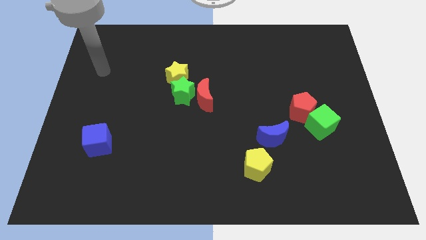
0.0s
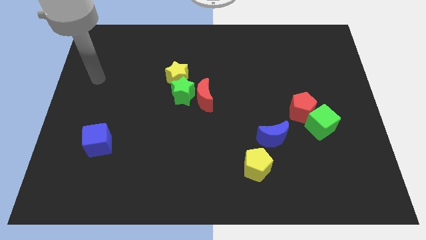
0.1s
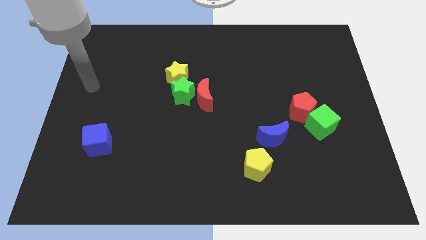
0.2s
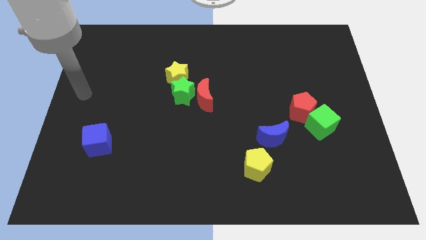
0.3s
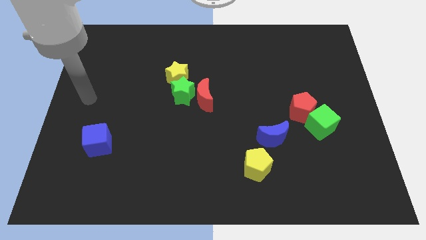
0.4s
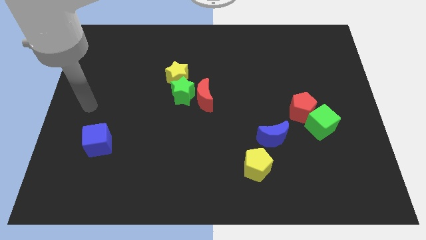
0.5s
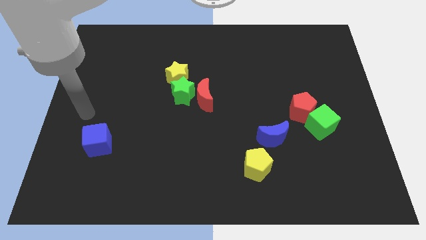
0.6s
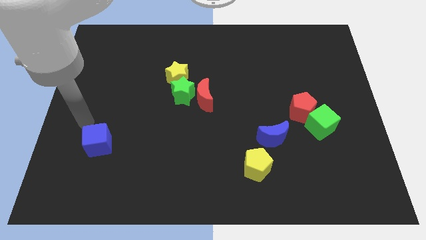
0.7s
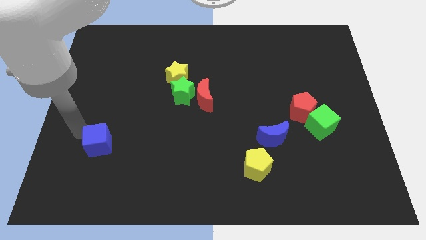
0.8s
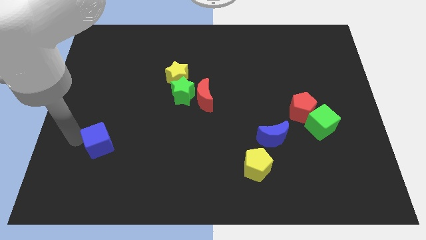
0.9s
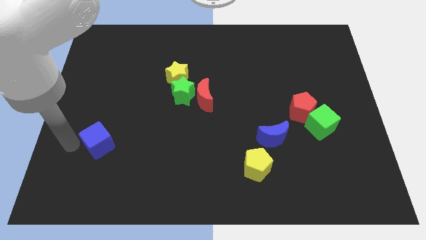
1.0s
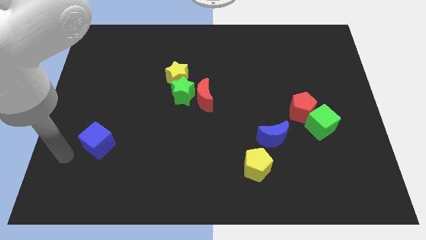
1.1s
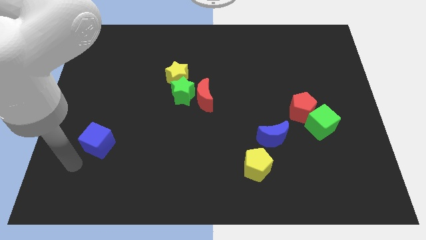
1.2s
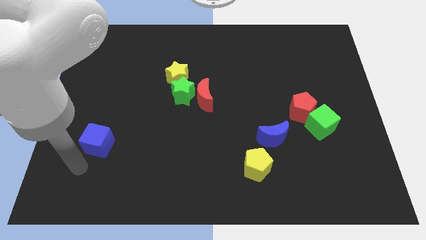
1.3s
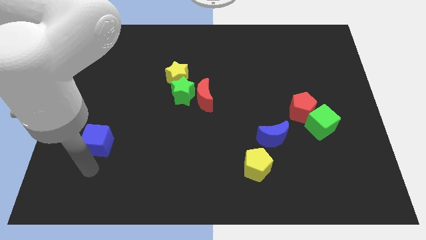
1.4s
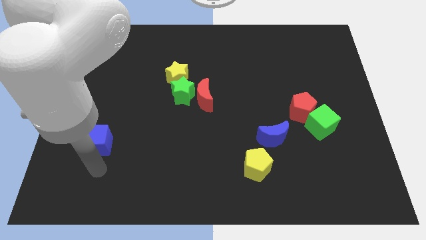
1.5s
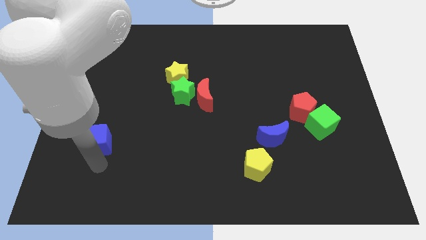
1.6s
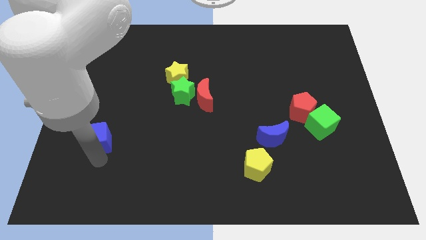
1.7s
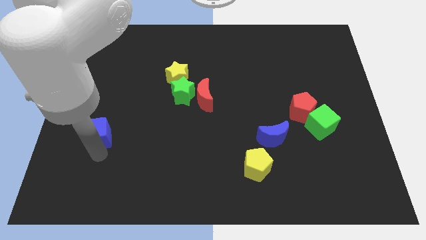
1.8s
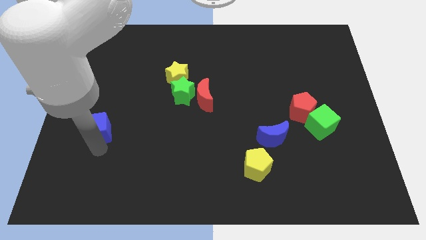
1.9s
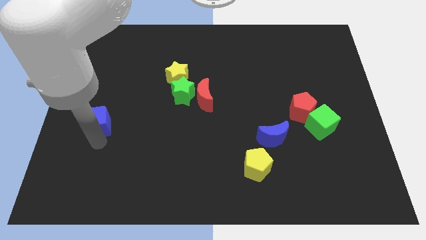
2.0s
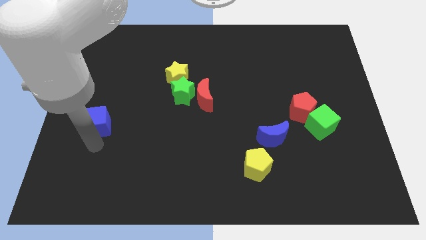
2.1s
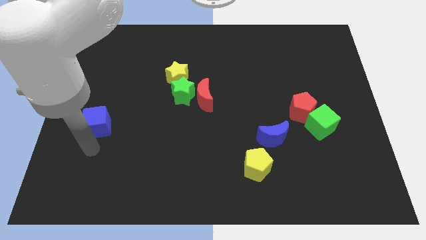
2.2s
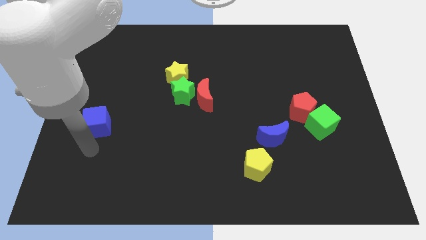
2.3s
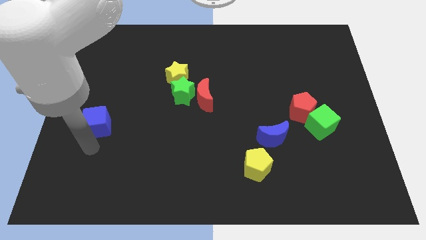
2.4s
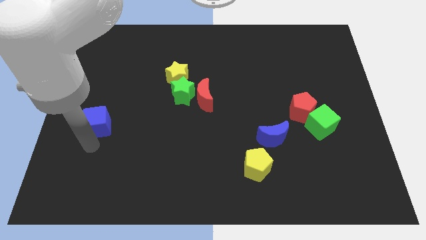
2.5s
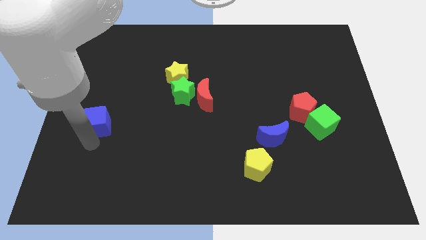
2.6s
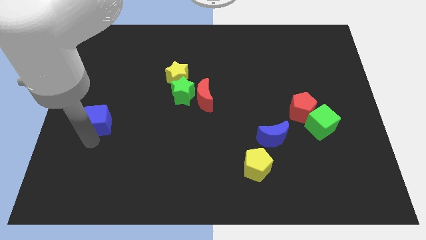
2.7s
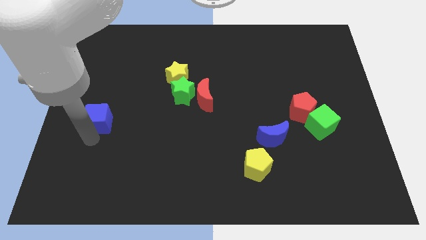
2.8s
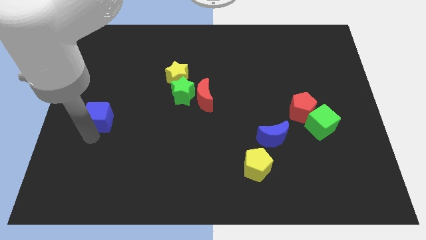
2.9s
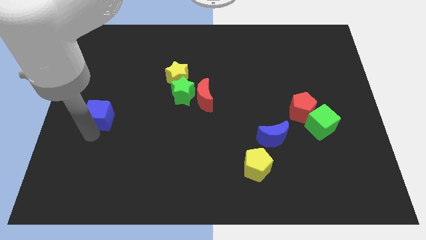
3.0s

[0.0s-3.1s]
move the blue cube upwards a little bit

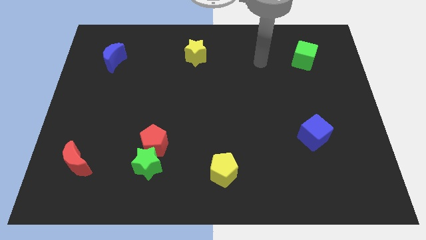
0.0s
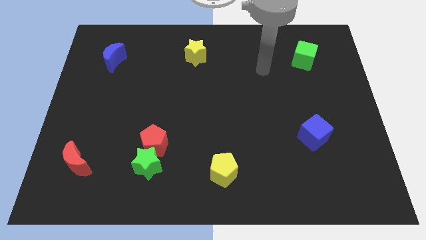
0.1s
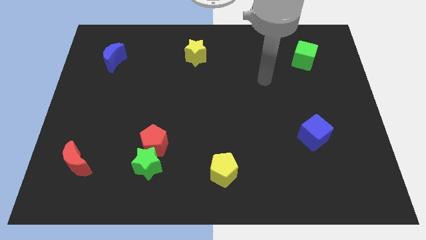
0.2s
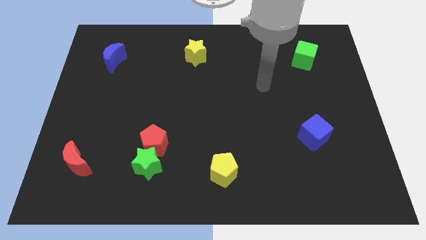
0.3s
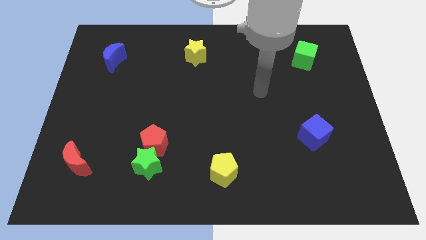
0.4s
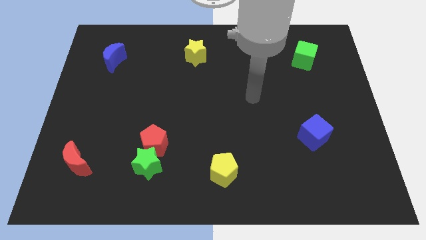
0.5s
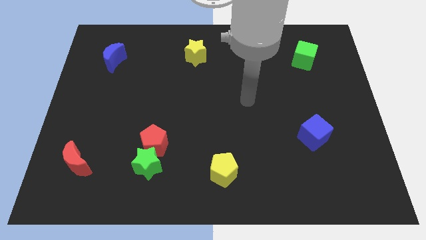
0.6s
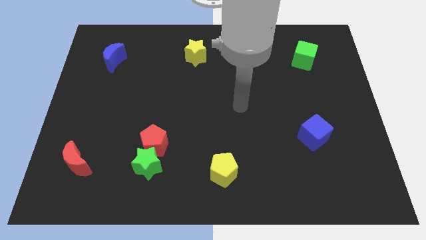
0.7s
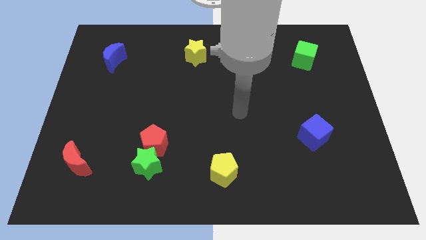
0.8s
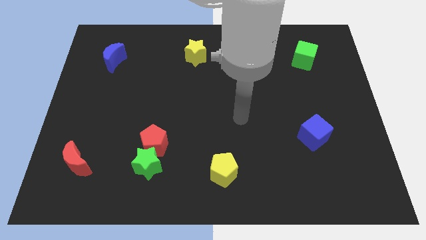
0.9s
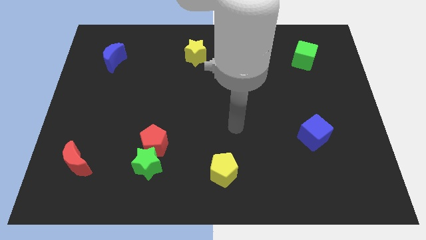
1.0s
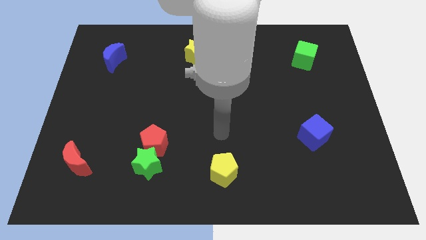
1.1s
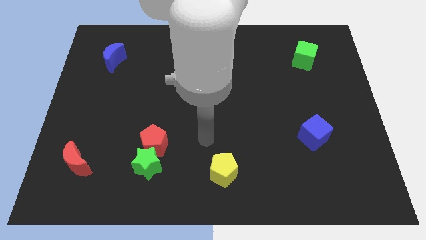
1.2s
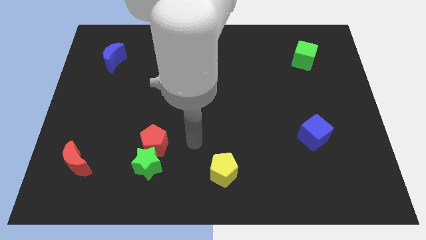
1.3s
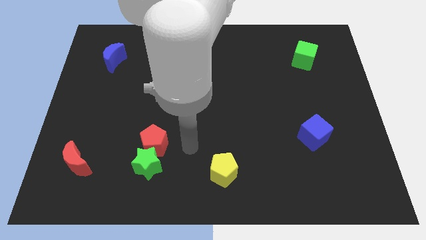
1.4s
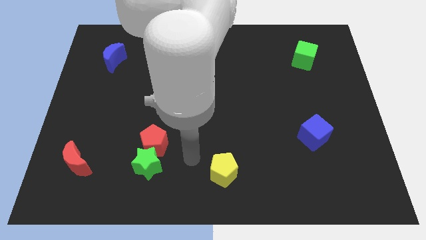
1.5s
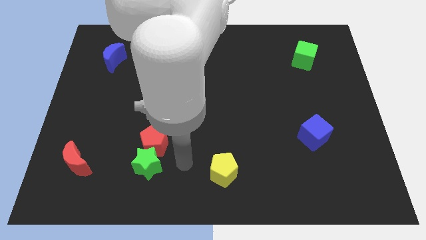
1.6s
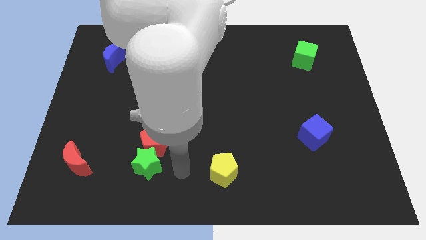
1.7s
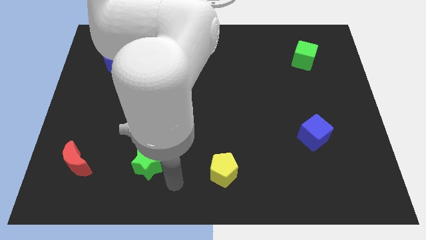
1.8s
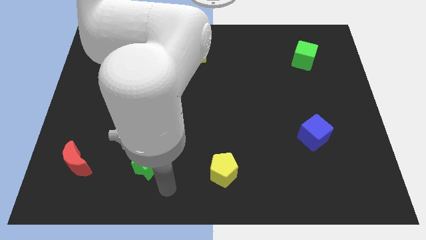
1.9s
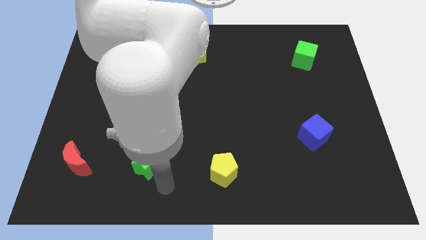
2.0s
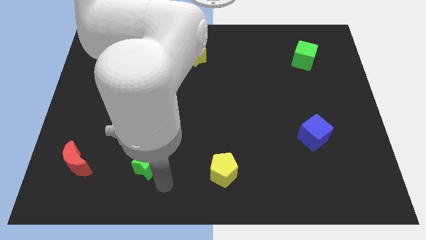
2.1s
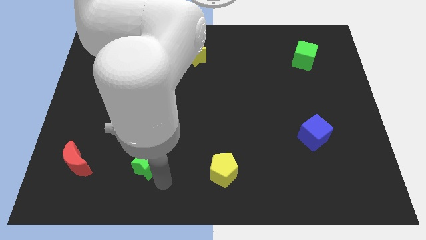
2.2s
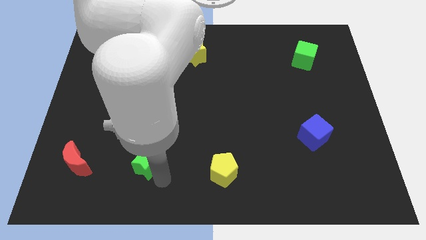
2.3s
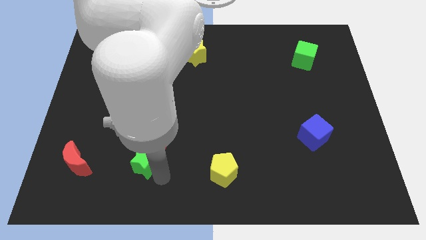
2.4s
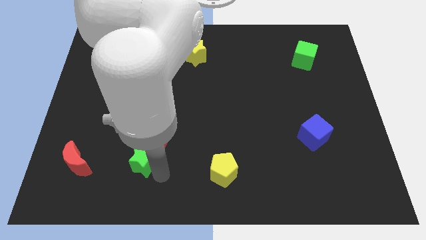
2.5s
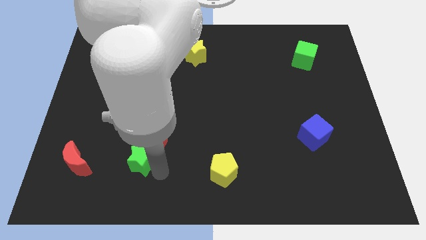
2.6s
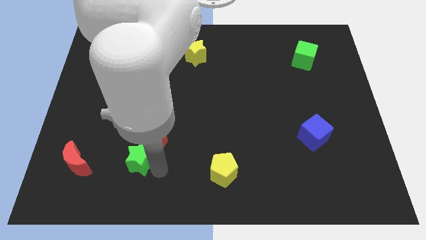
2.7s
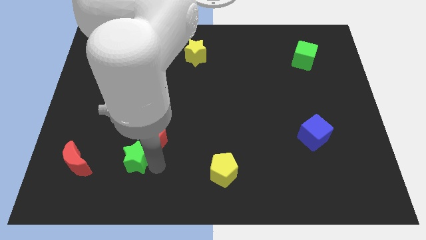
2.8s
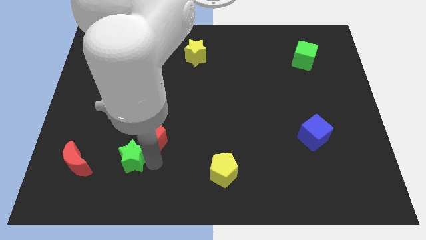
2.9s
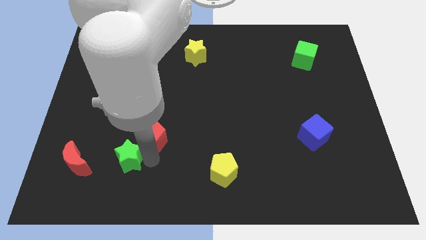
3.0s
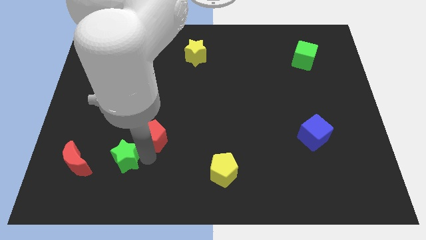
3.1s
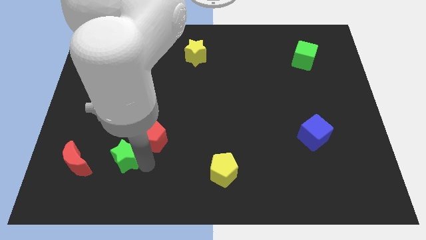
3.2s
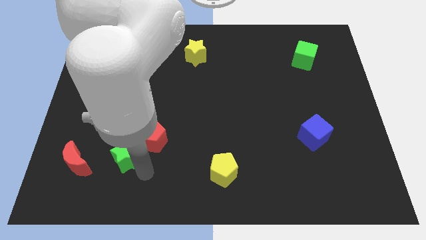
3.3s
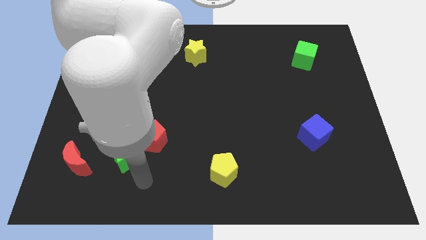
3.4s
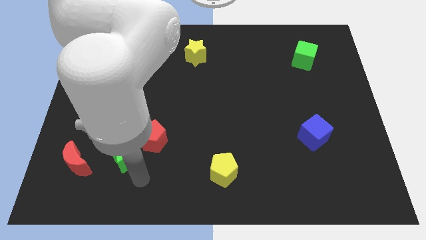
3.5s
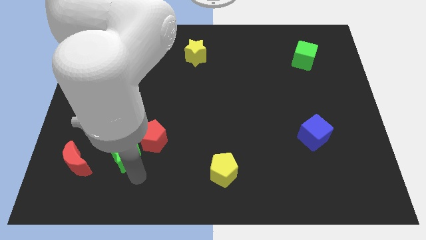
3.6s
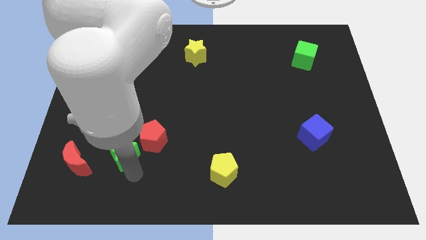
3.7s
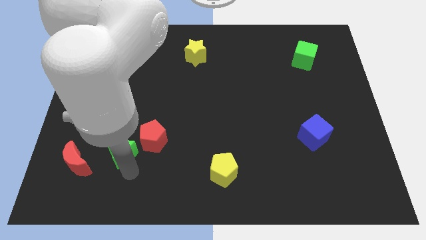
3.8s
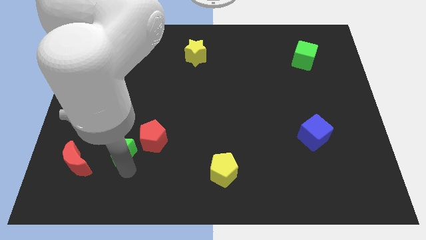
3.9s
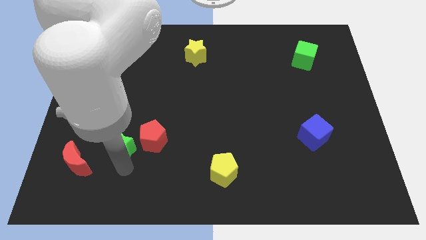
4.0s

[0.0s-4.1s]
push the green star up and to the left a little
